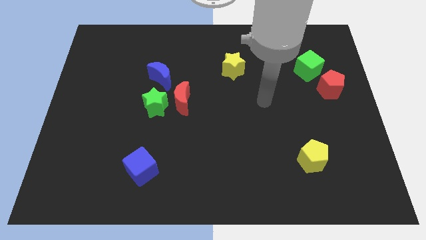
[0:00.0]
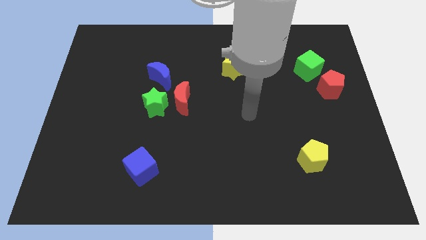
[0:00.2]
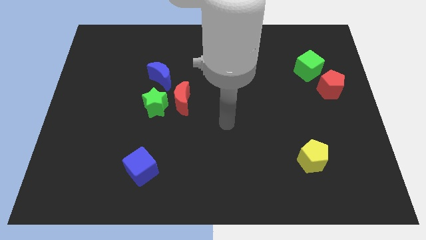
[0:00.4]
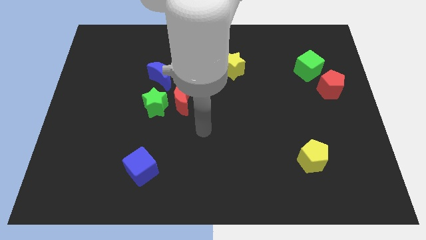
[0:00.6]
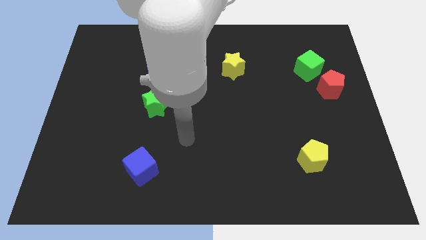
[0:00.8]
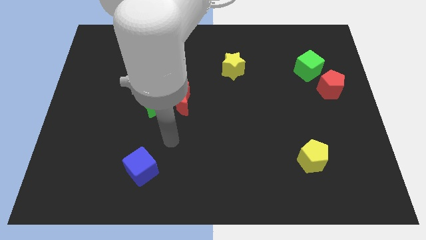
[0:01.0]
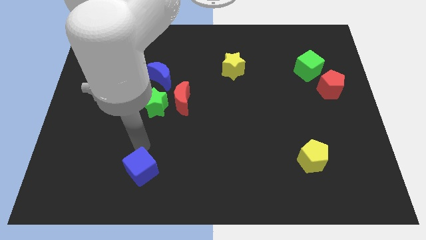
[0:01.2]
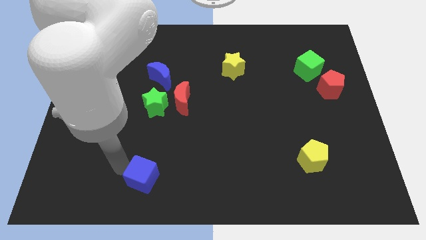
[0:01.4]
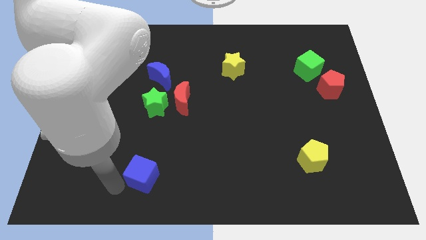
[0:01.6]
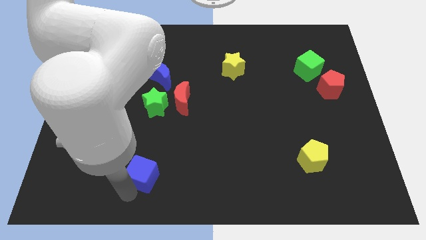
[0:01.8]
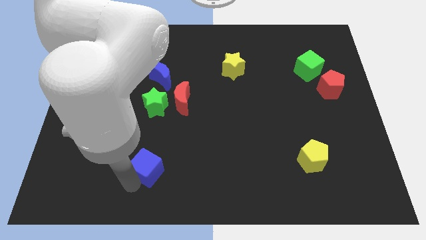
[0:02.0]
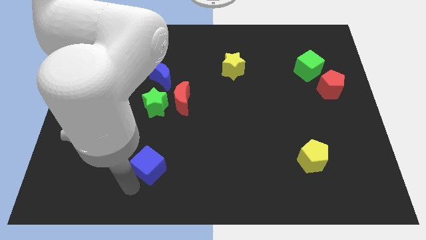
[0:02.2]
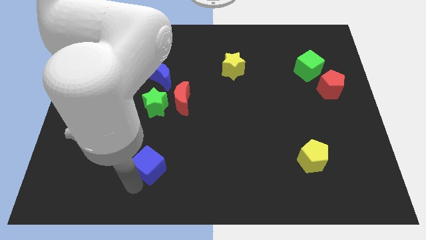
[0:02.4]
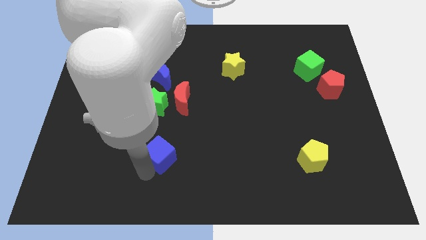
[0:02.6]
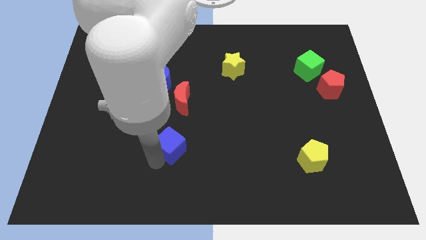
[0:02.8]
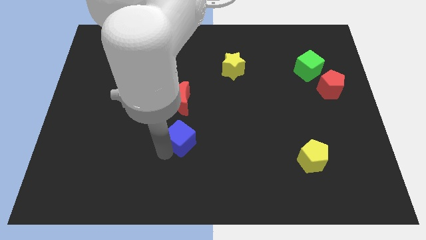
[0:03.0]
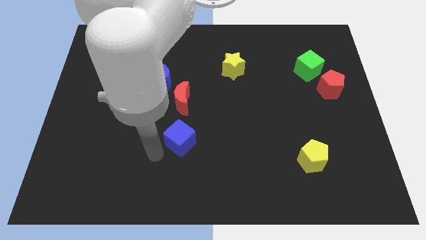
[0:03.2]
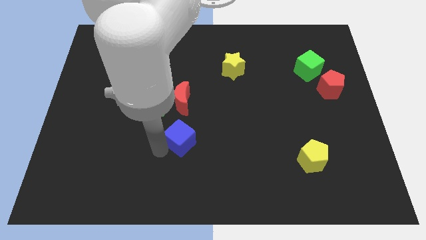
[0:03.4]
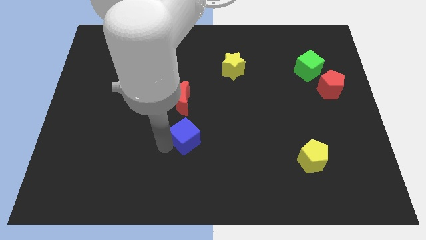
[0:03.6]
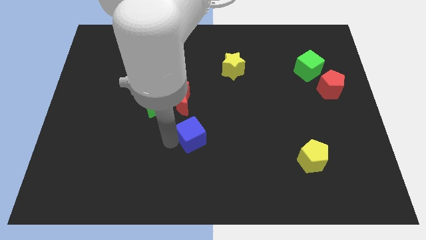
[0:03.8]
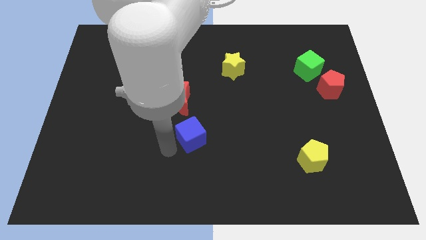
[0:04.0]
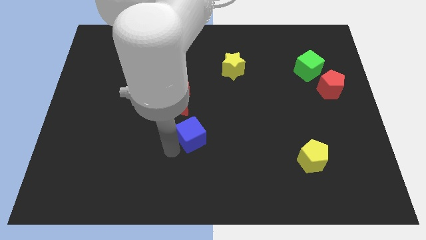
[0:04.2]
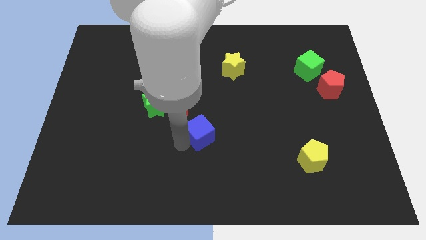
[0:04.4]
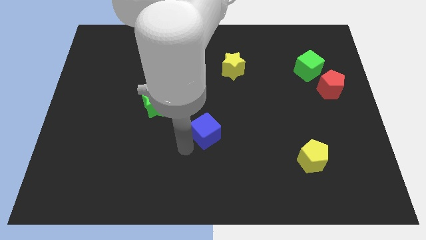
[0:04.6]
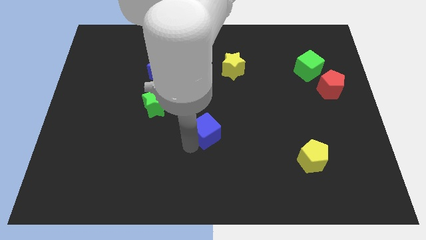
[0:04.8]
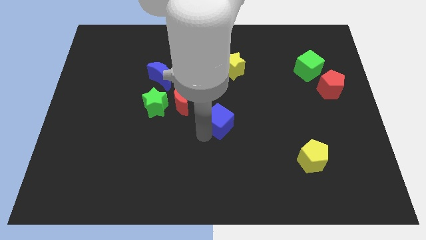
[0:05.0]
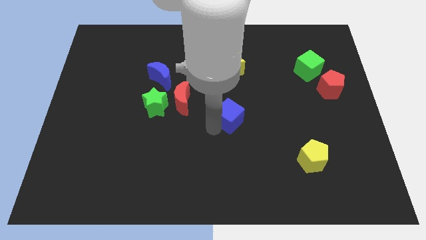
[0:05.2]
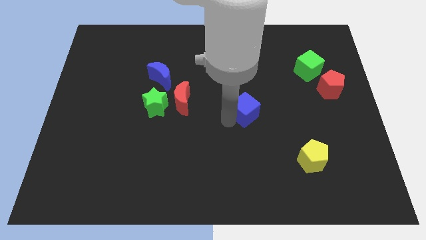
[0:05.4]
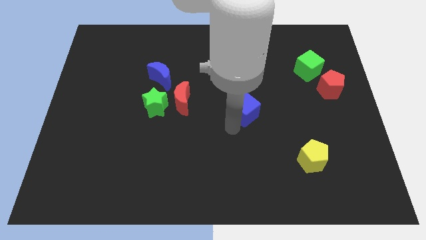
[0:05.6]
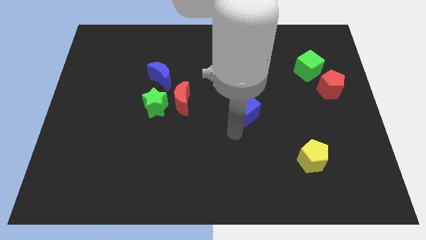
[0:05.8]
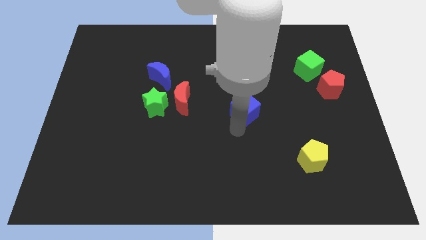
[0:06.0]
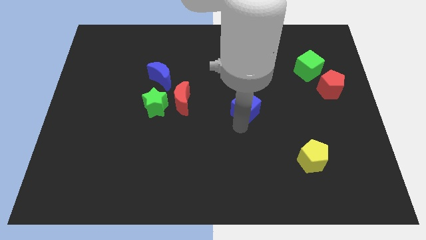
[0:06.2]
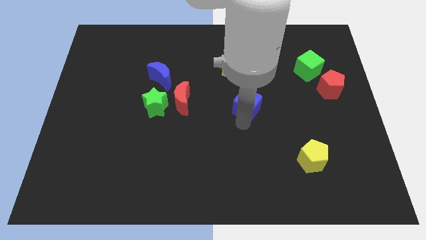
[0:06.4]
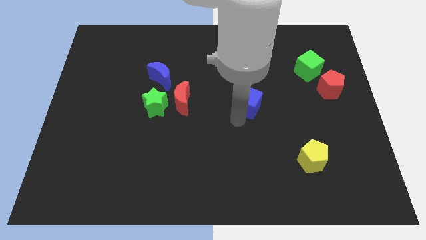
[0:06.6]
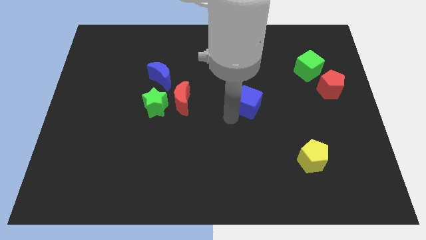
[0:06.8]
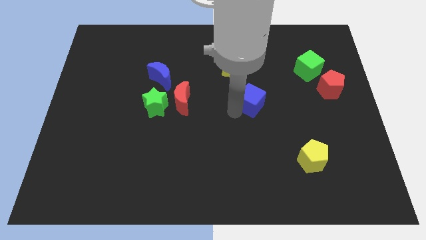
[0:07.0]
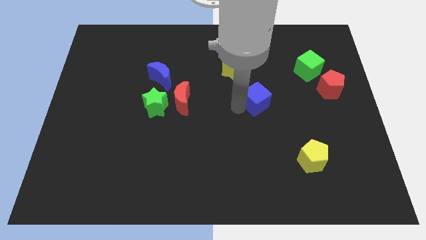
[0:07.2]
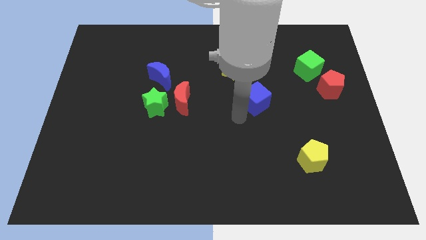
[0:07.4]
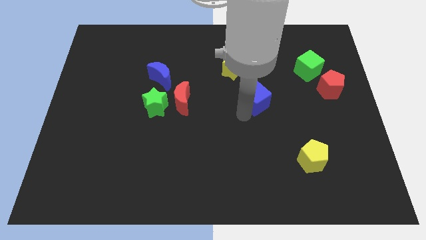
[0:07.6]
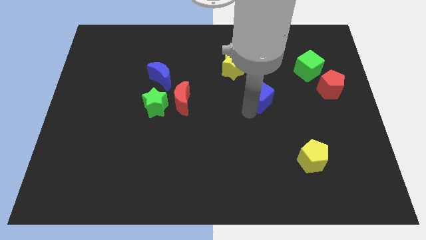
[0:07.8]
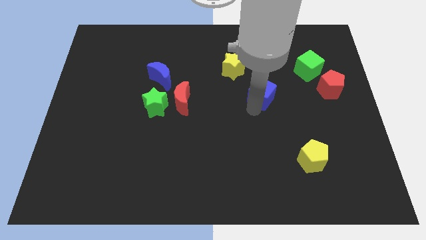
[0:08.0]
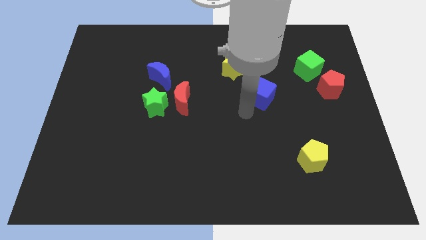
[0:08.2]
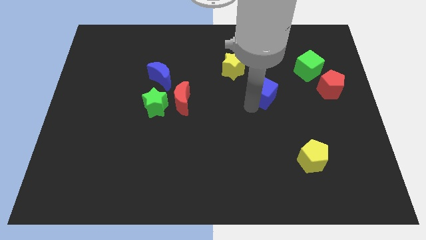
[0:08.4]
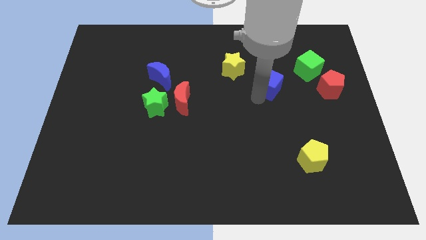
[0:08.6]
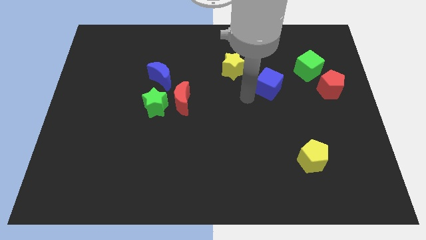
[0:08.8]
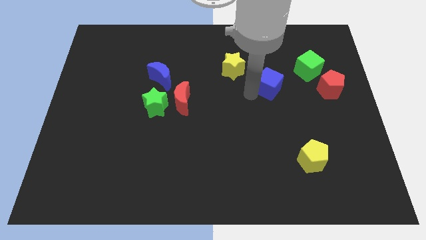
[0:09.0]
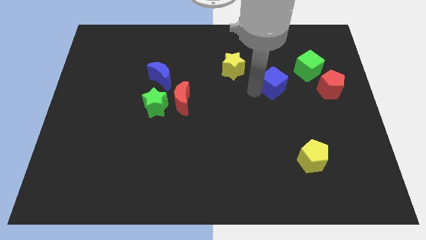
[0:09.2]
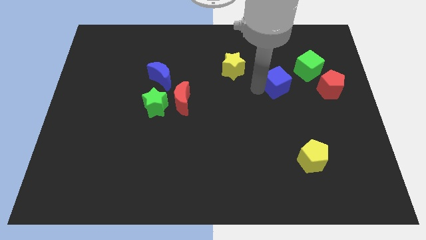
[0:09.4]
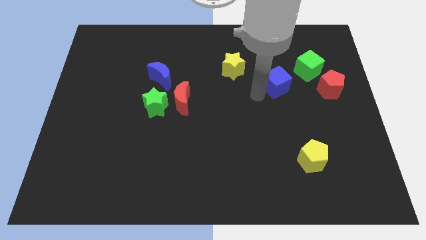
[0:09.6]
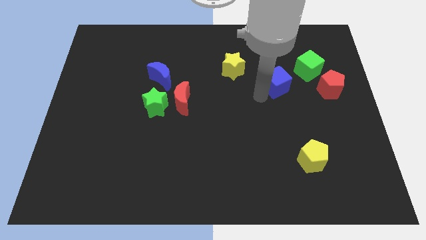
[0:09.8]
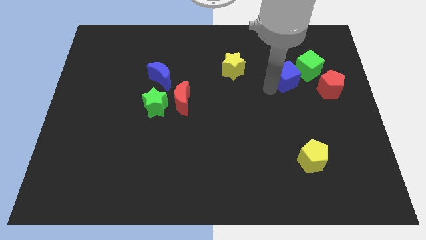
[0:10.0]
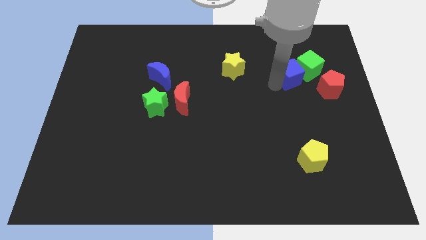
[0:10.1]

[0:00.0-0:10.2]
put the blue cube next to the green cube

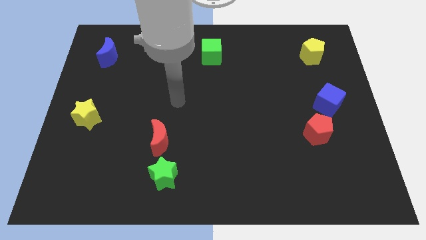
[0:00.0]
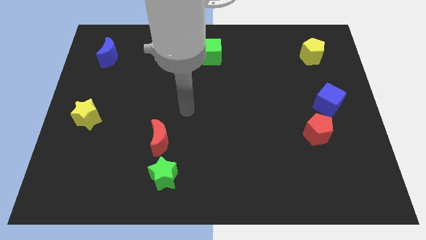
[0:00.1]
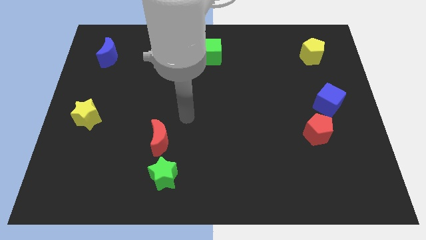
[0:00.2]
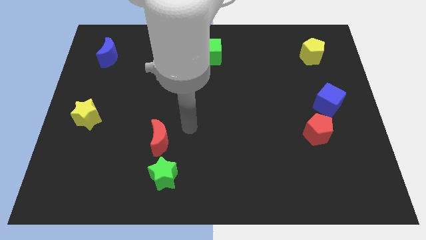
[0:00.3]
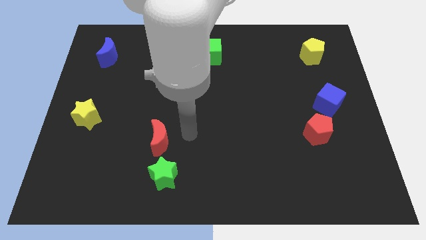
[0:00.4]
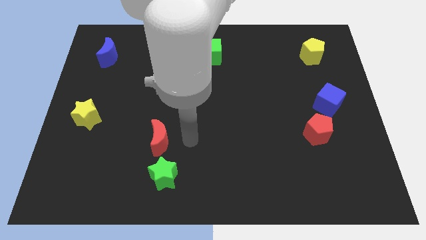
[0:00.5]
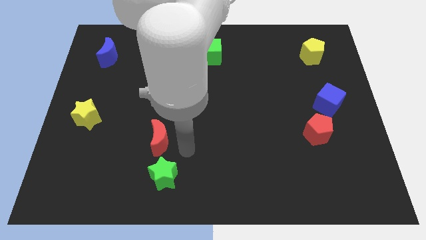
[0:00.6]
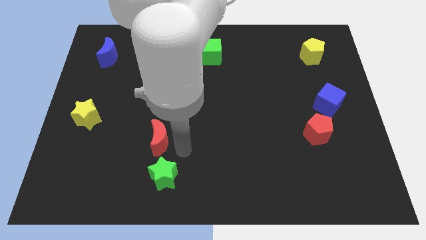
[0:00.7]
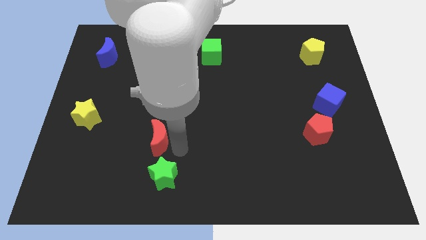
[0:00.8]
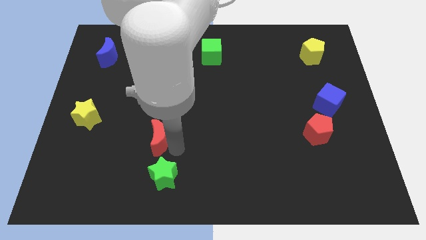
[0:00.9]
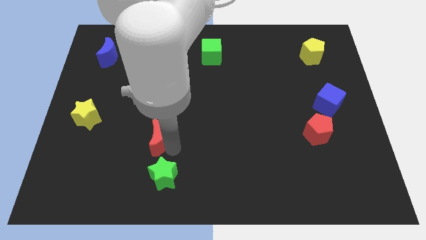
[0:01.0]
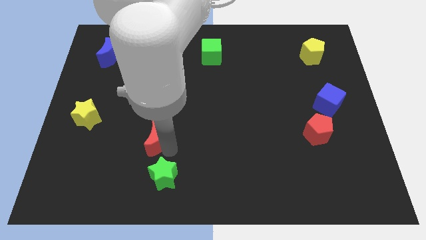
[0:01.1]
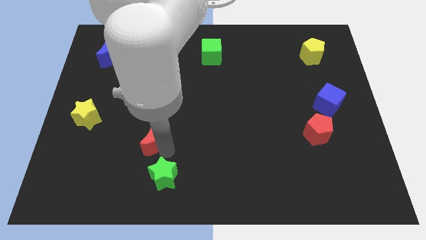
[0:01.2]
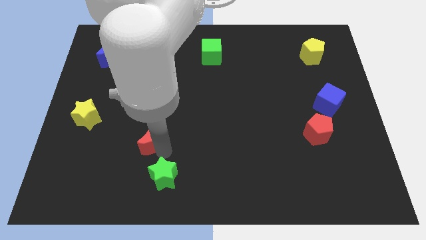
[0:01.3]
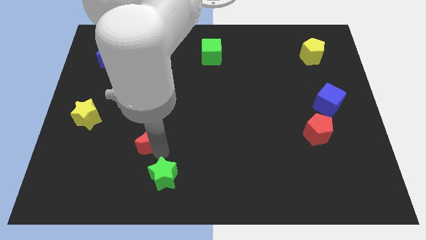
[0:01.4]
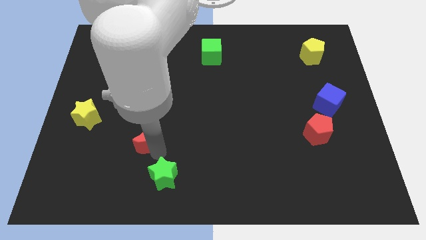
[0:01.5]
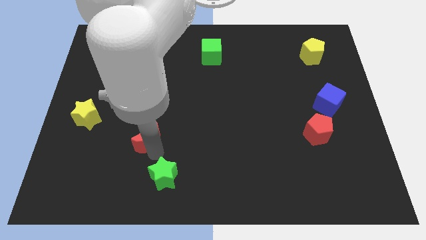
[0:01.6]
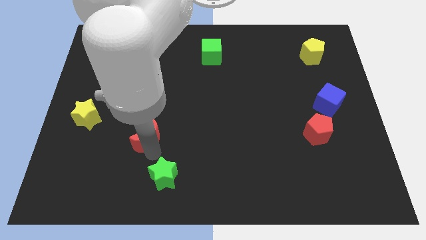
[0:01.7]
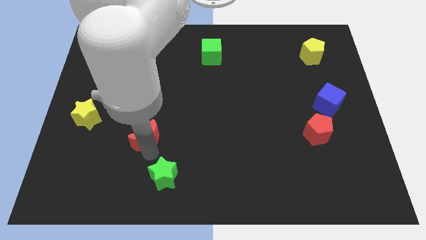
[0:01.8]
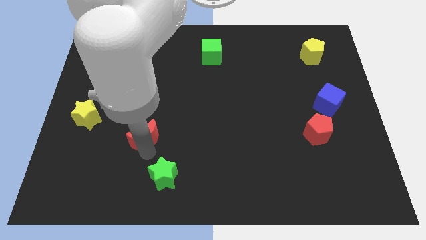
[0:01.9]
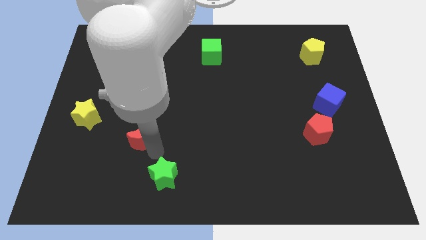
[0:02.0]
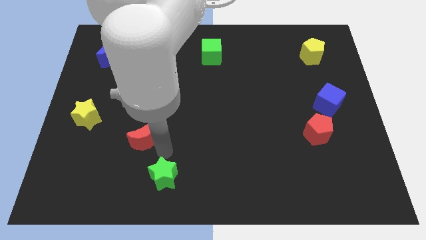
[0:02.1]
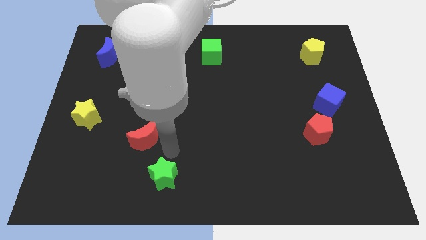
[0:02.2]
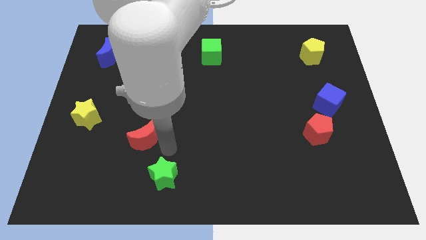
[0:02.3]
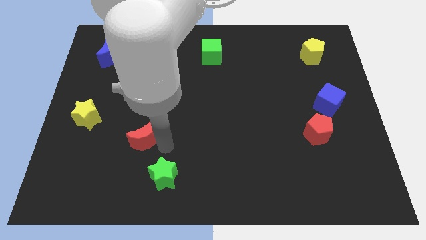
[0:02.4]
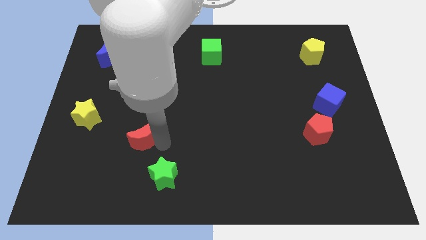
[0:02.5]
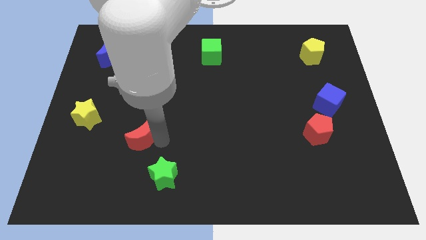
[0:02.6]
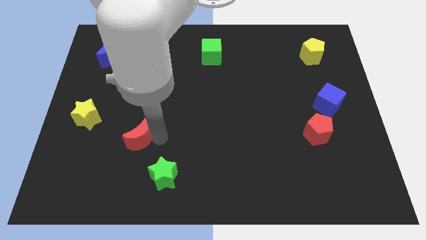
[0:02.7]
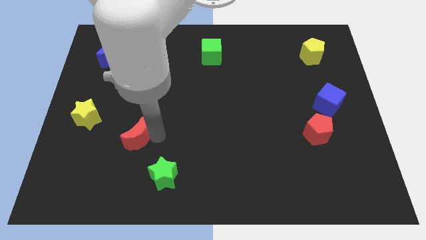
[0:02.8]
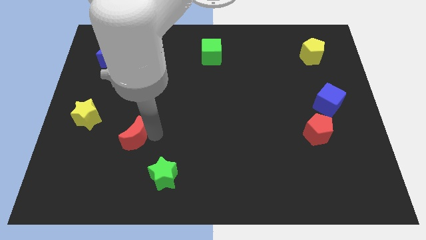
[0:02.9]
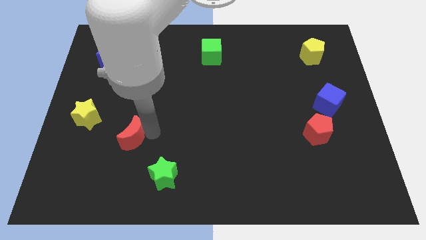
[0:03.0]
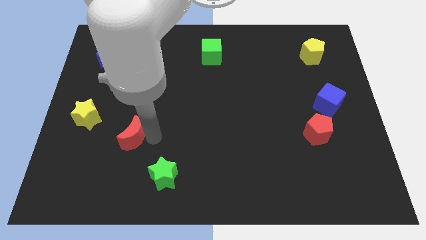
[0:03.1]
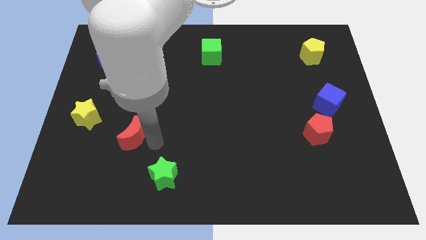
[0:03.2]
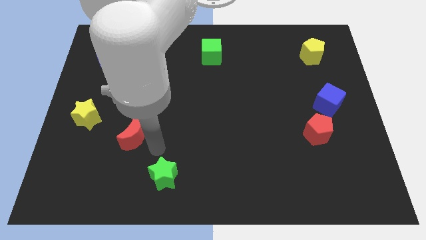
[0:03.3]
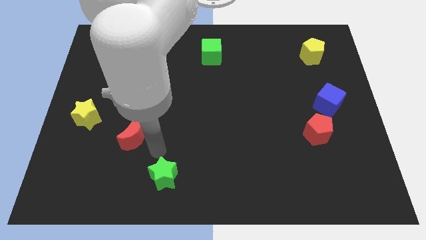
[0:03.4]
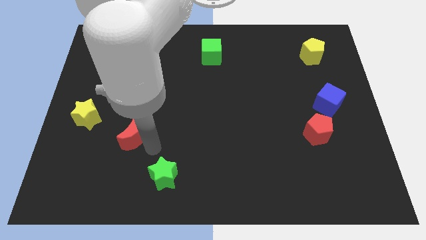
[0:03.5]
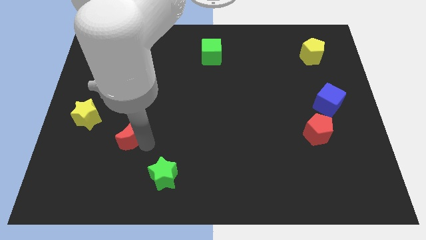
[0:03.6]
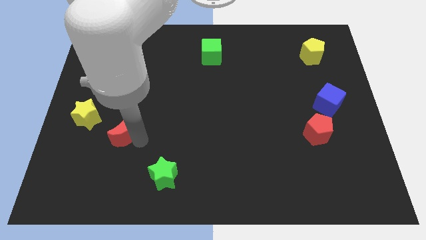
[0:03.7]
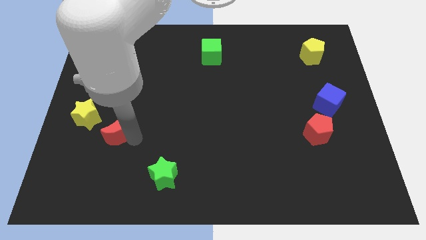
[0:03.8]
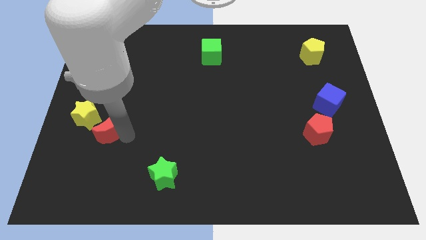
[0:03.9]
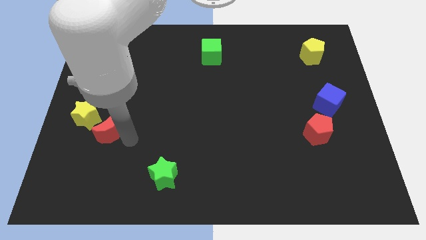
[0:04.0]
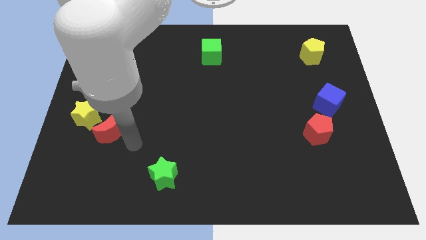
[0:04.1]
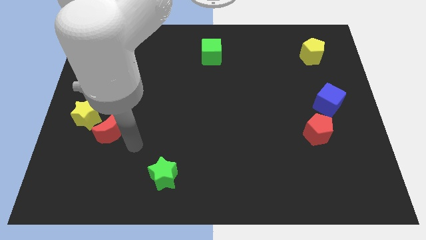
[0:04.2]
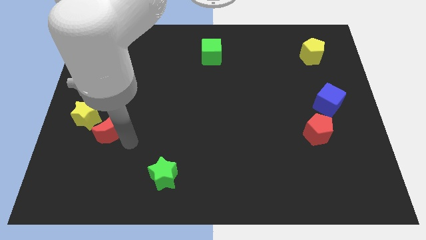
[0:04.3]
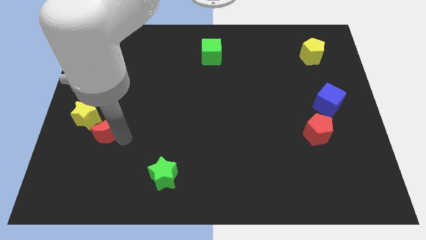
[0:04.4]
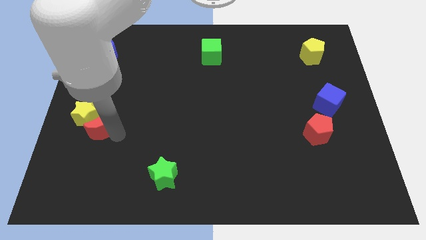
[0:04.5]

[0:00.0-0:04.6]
move the red moon next to the yellow star
